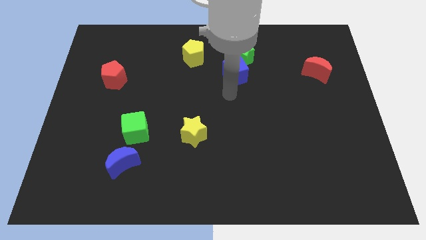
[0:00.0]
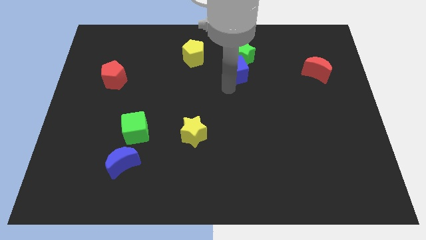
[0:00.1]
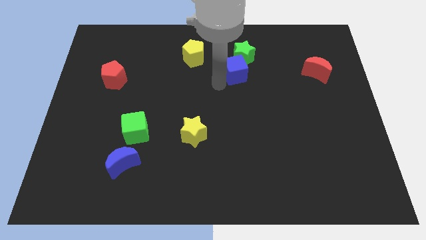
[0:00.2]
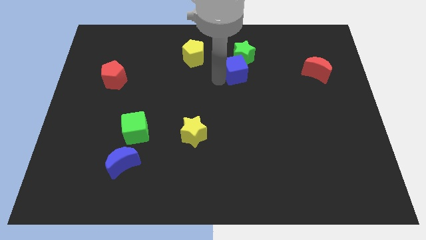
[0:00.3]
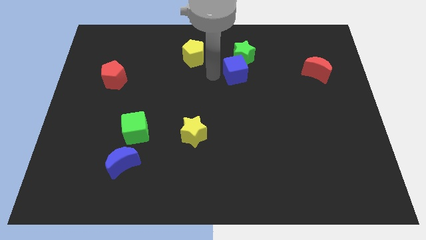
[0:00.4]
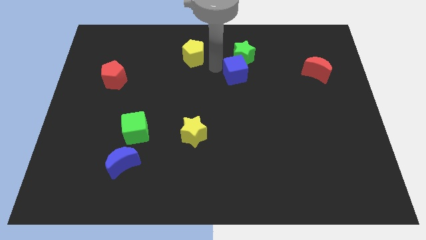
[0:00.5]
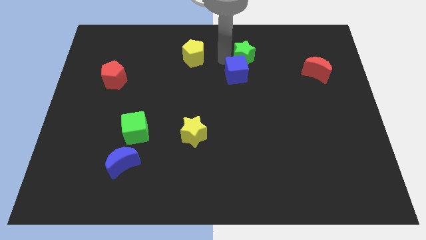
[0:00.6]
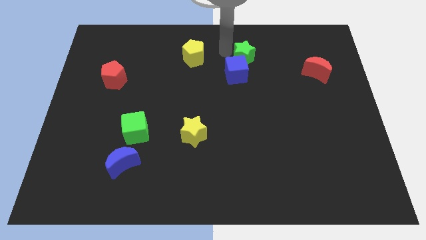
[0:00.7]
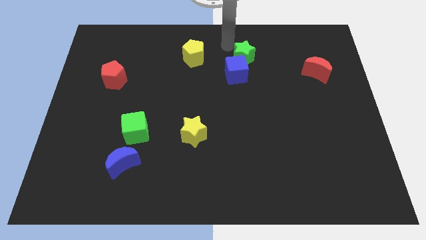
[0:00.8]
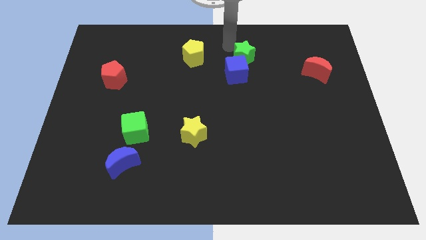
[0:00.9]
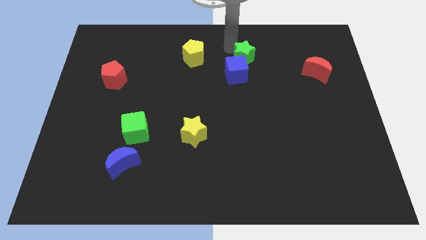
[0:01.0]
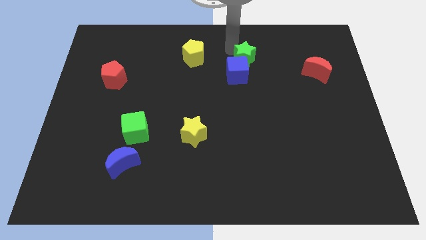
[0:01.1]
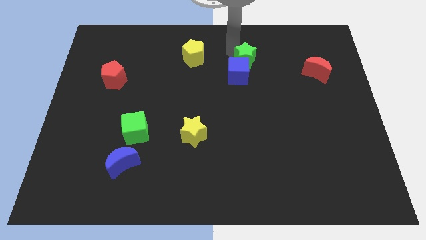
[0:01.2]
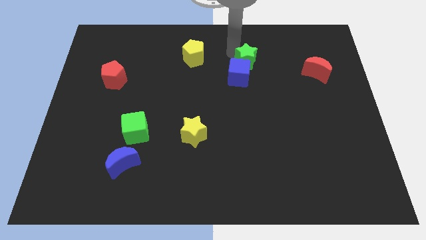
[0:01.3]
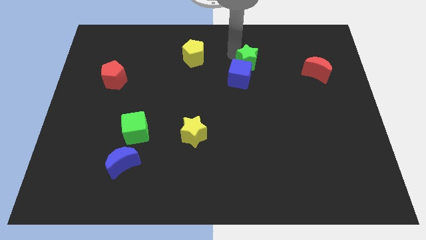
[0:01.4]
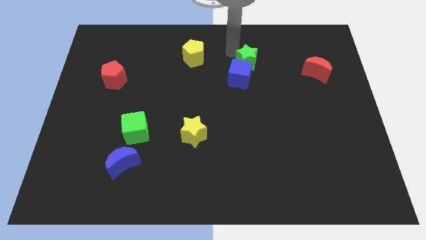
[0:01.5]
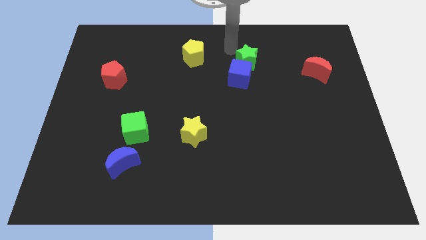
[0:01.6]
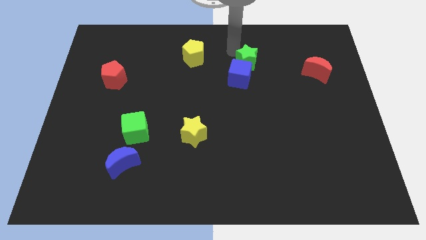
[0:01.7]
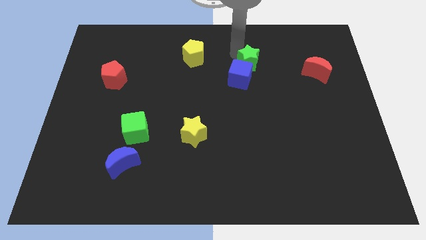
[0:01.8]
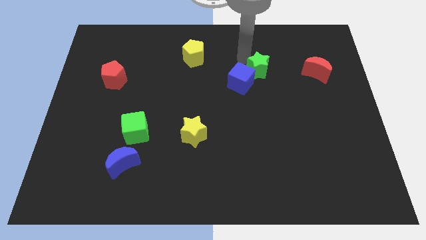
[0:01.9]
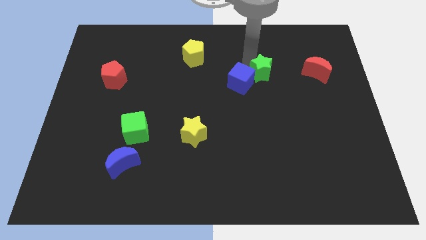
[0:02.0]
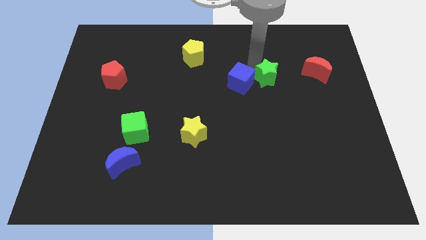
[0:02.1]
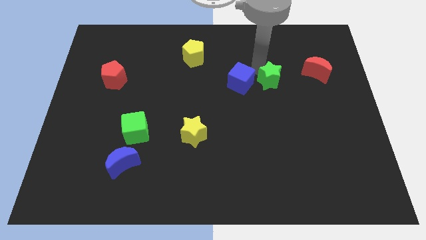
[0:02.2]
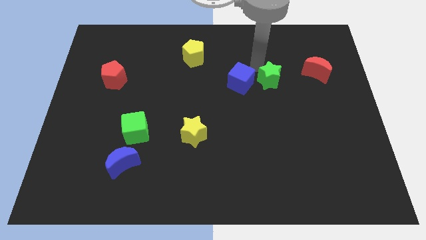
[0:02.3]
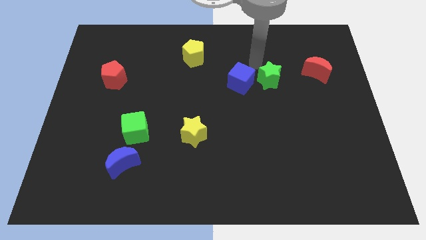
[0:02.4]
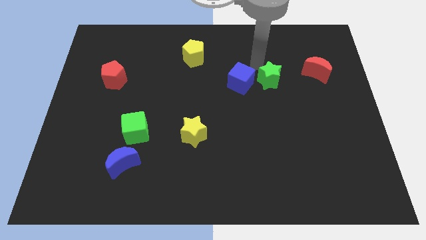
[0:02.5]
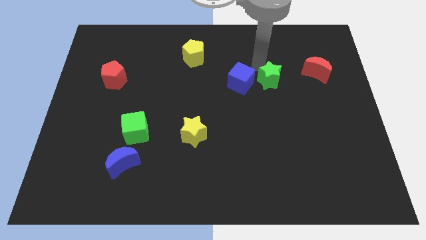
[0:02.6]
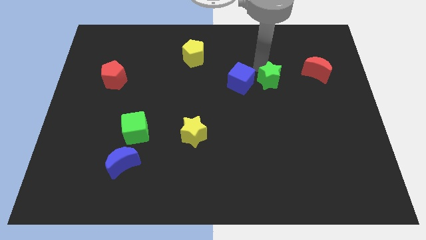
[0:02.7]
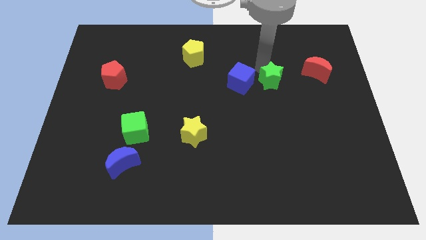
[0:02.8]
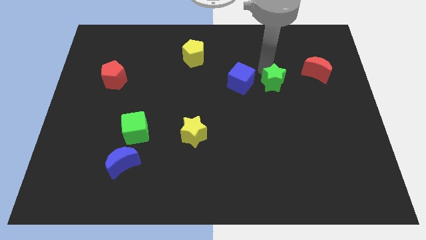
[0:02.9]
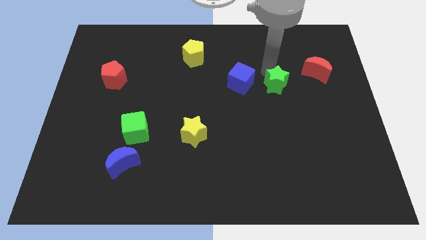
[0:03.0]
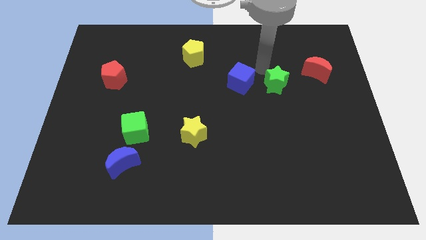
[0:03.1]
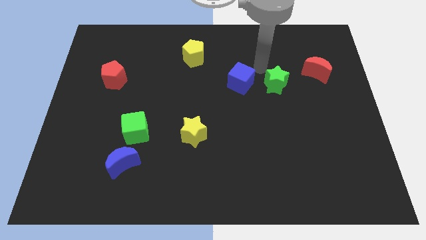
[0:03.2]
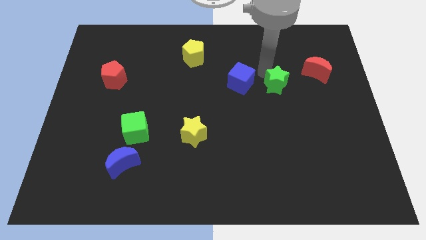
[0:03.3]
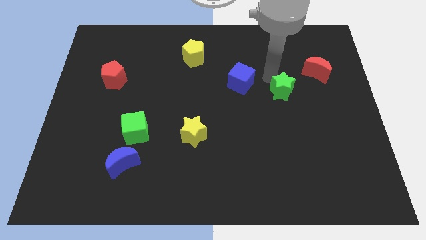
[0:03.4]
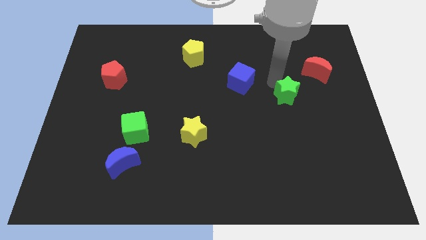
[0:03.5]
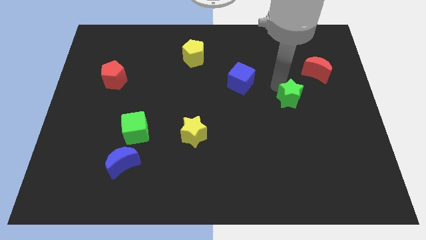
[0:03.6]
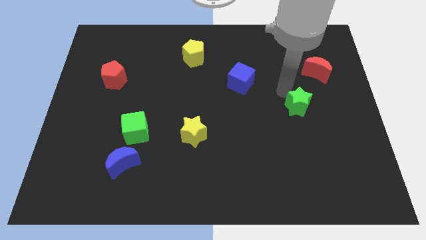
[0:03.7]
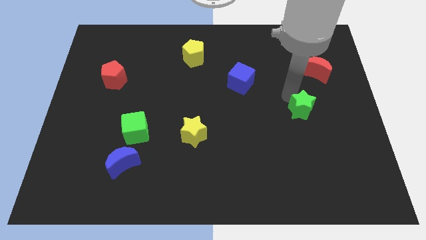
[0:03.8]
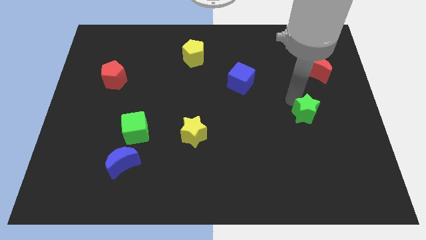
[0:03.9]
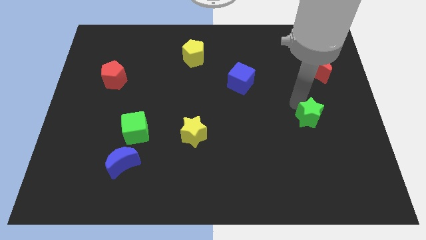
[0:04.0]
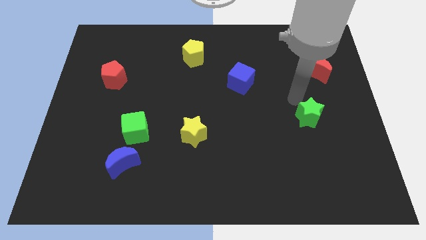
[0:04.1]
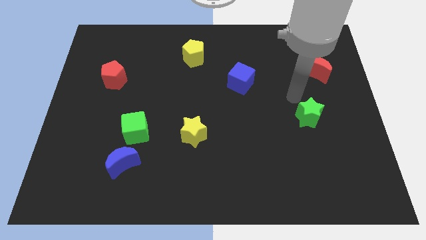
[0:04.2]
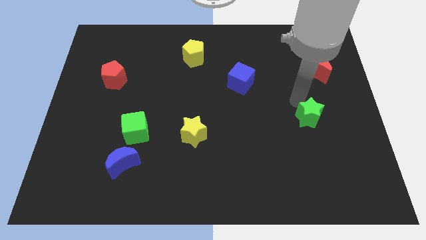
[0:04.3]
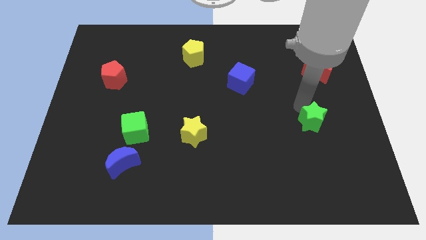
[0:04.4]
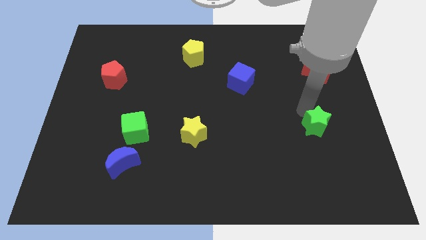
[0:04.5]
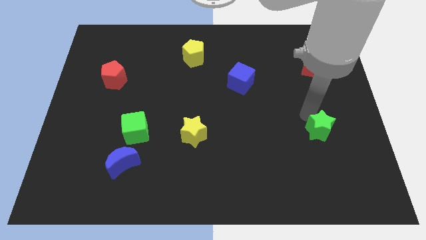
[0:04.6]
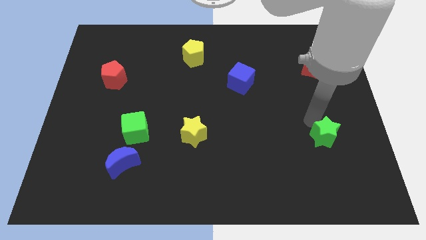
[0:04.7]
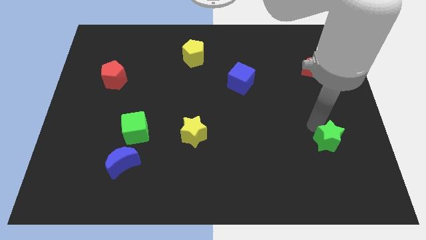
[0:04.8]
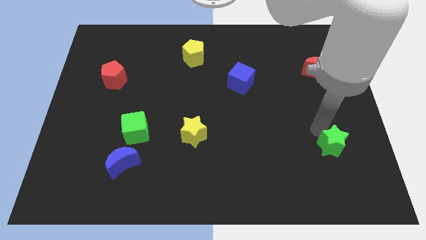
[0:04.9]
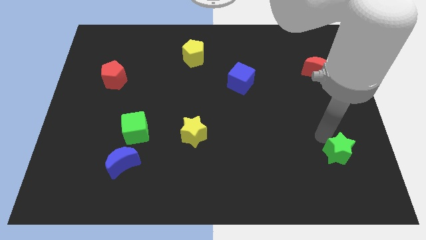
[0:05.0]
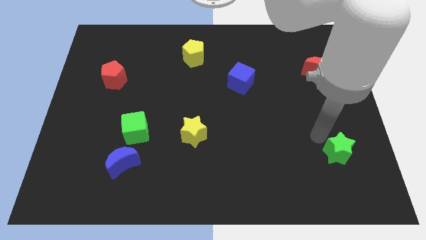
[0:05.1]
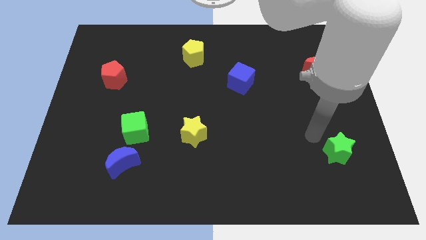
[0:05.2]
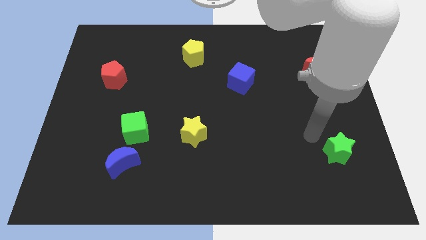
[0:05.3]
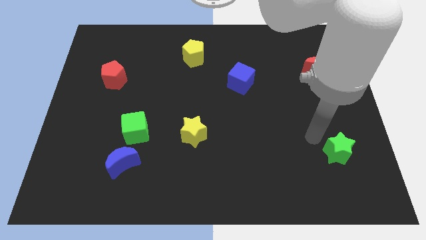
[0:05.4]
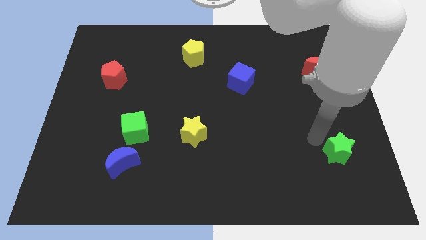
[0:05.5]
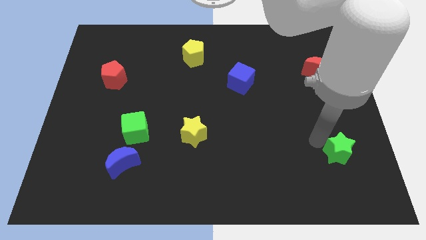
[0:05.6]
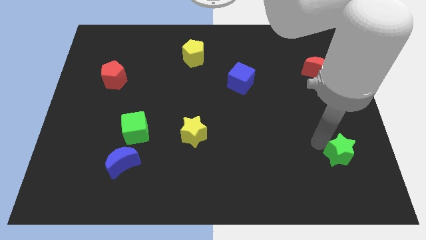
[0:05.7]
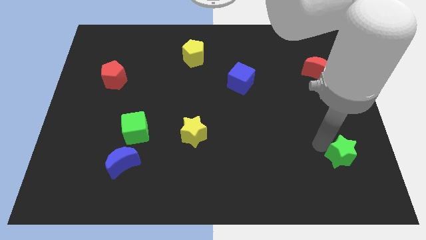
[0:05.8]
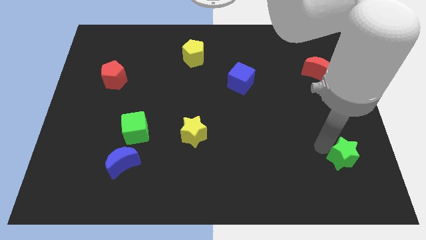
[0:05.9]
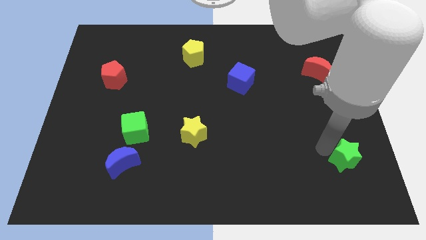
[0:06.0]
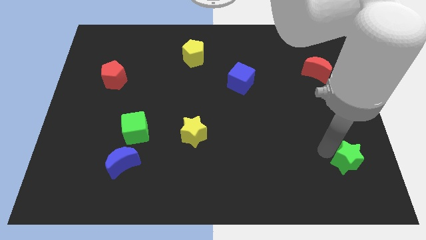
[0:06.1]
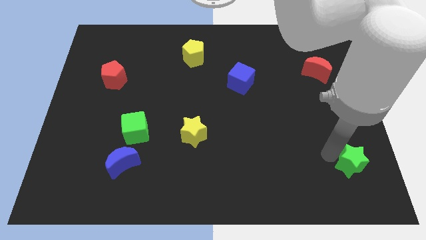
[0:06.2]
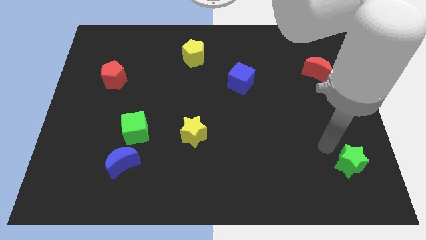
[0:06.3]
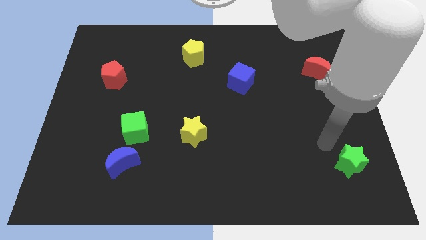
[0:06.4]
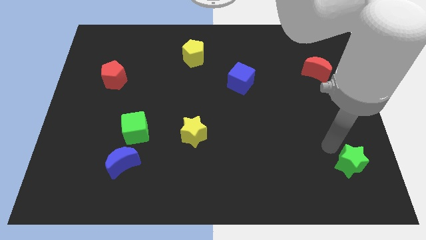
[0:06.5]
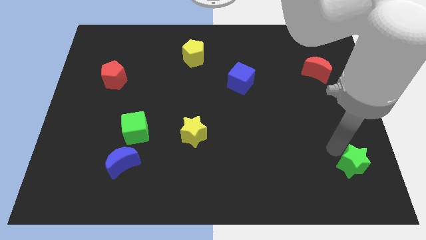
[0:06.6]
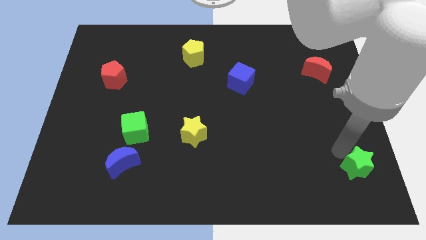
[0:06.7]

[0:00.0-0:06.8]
move the green star to the bottom right
